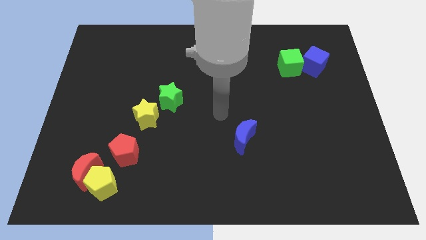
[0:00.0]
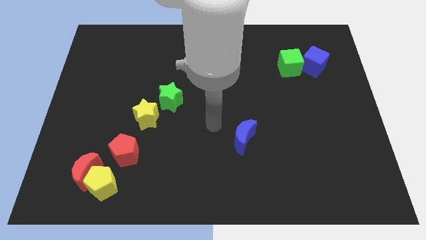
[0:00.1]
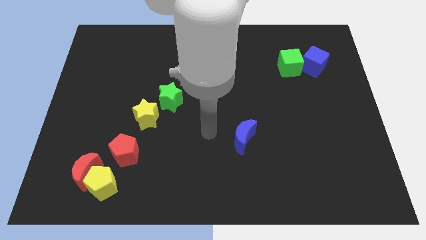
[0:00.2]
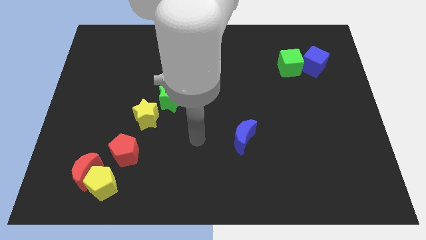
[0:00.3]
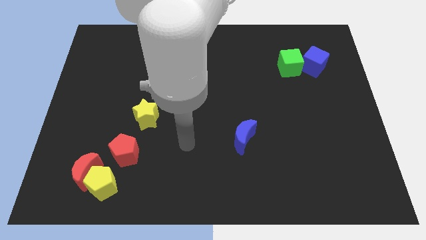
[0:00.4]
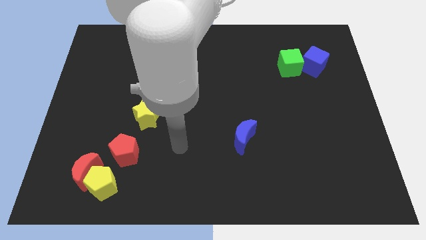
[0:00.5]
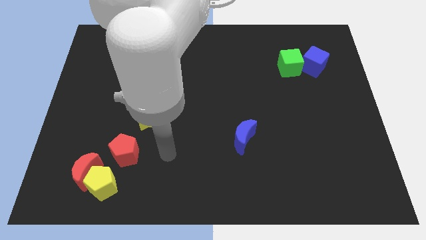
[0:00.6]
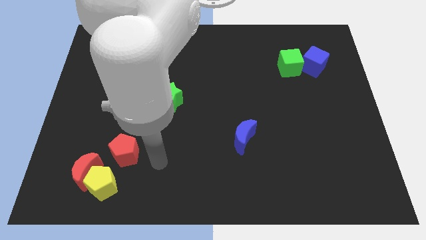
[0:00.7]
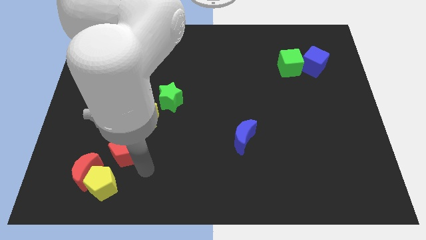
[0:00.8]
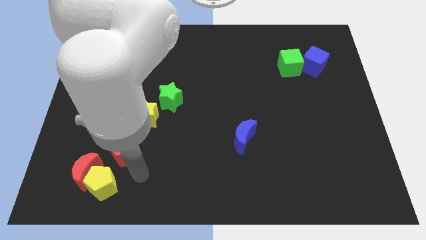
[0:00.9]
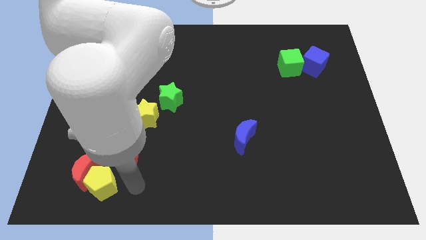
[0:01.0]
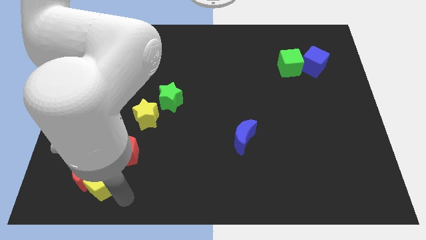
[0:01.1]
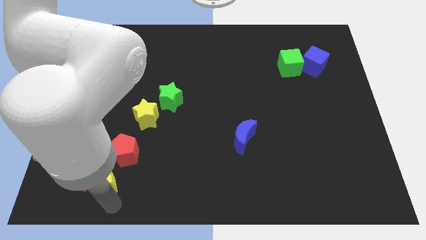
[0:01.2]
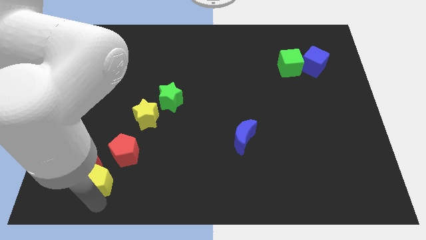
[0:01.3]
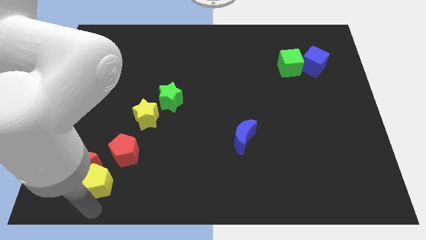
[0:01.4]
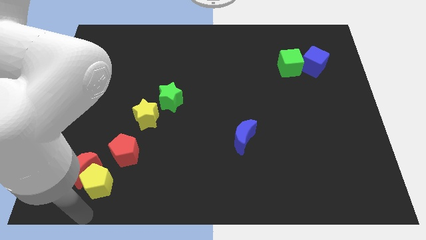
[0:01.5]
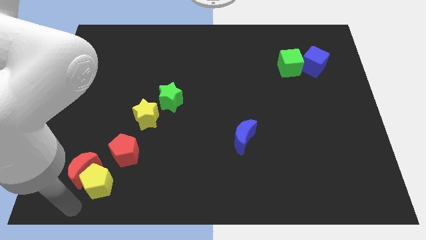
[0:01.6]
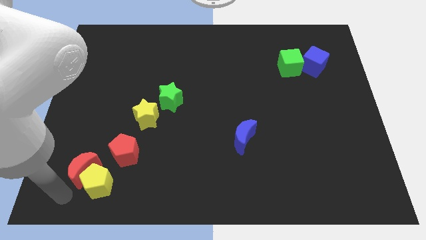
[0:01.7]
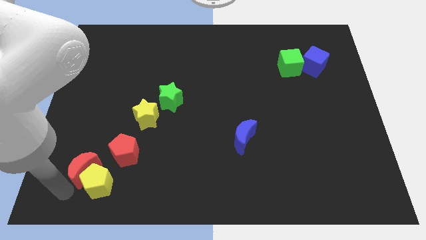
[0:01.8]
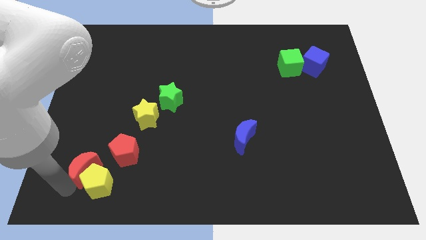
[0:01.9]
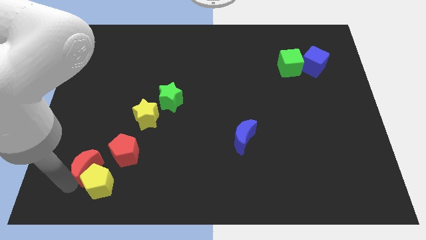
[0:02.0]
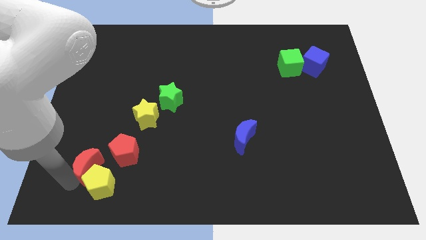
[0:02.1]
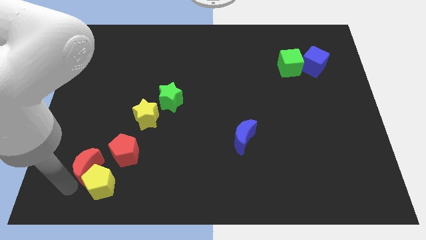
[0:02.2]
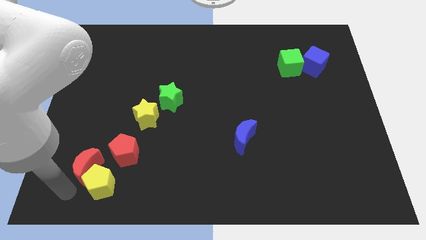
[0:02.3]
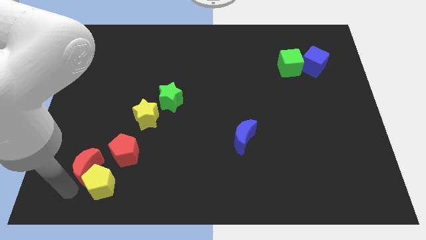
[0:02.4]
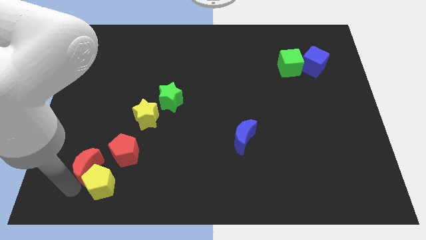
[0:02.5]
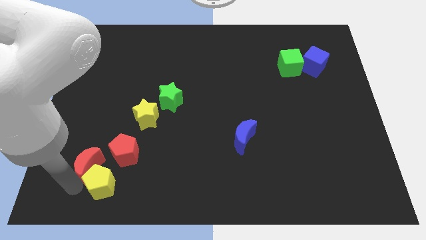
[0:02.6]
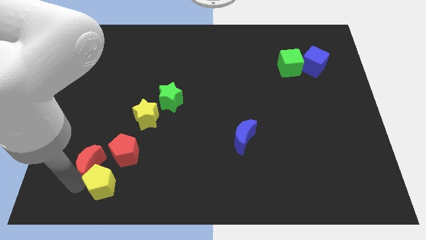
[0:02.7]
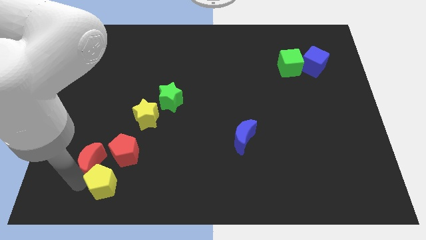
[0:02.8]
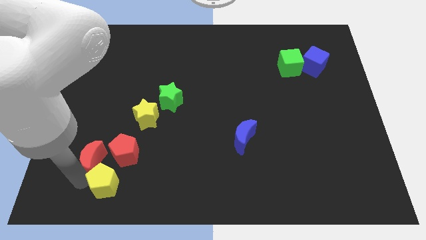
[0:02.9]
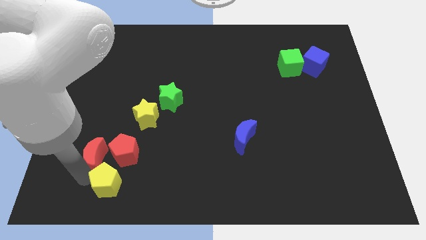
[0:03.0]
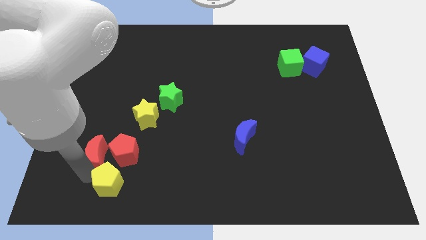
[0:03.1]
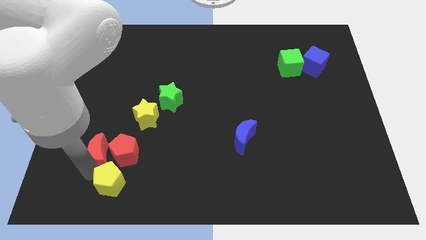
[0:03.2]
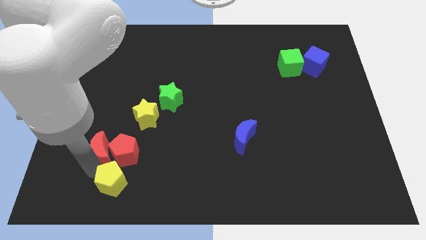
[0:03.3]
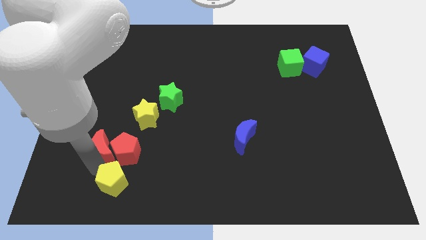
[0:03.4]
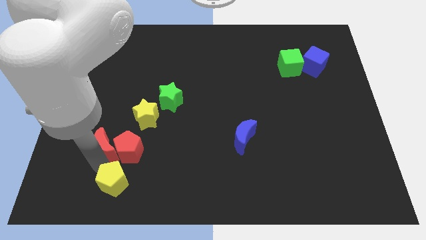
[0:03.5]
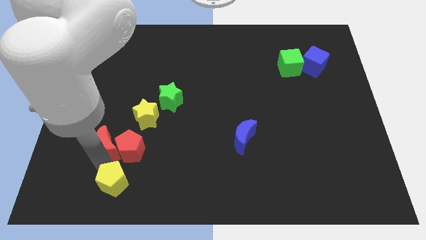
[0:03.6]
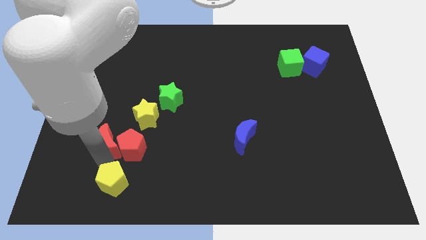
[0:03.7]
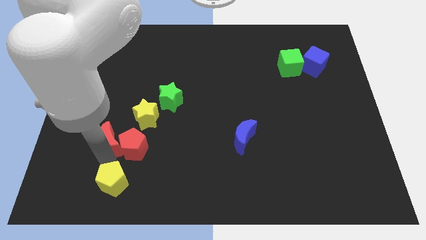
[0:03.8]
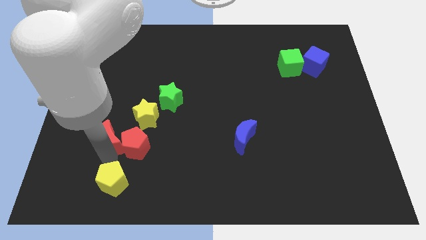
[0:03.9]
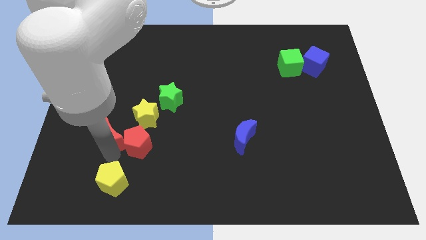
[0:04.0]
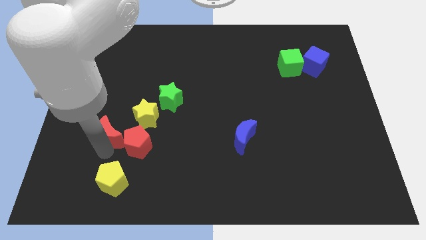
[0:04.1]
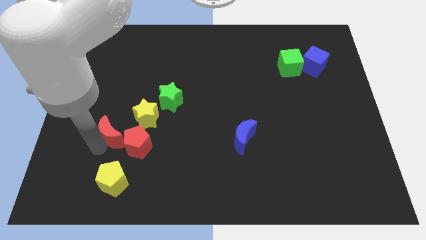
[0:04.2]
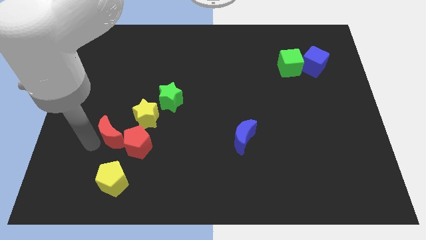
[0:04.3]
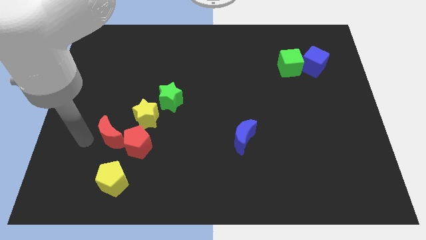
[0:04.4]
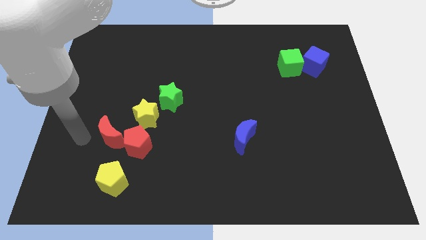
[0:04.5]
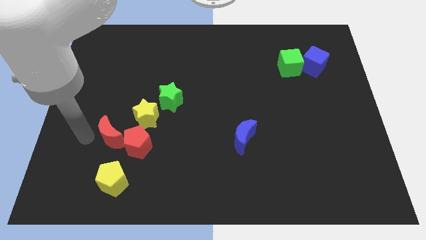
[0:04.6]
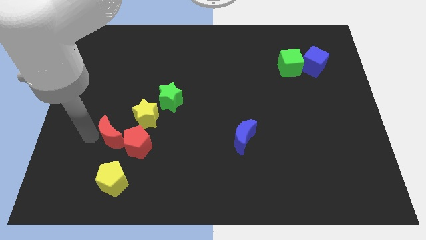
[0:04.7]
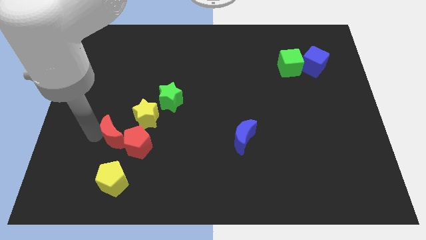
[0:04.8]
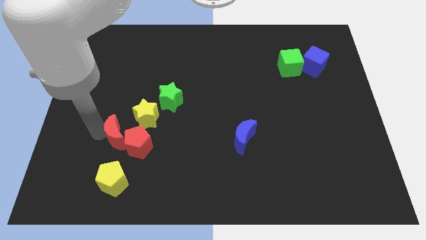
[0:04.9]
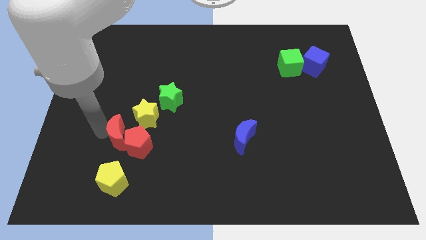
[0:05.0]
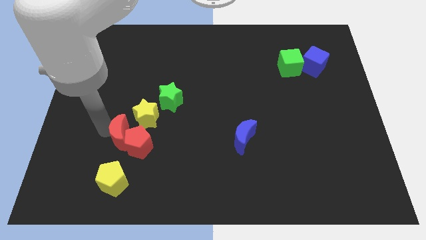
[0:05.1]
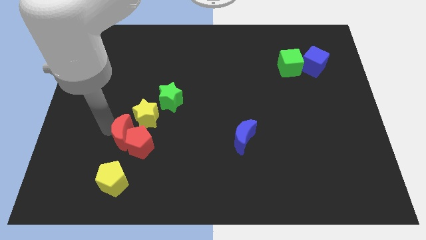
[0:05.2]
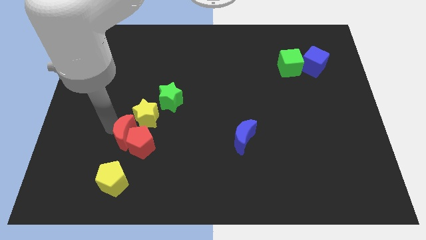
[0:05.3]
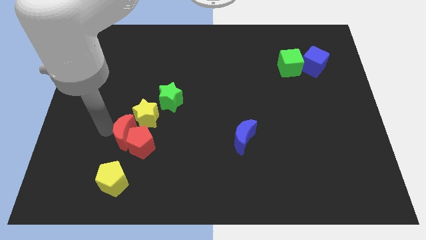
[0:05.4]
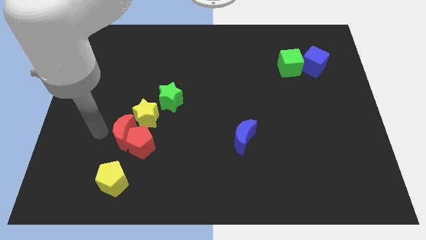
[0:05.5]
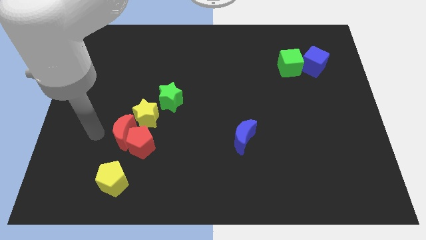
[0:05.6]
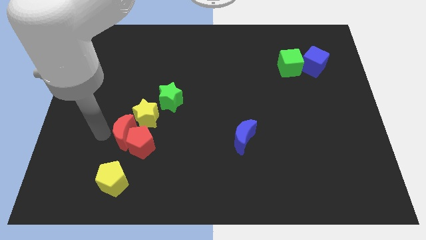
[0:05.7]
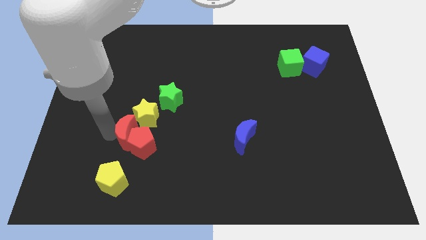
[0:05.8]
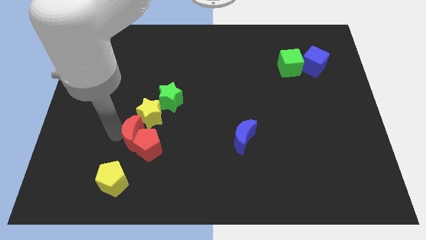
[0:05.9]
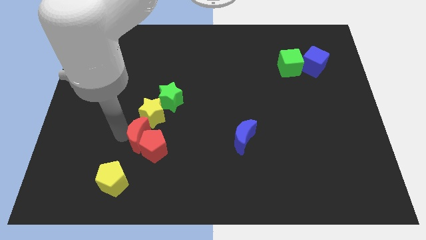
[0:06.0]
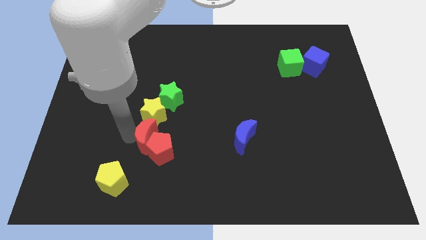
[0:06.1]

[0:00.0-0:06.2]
move the red moon to the bottom right side of the yellow star
